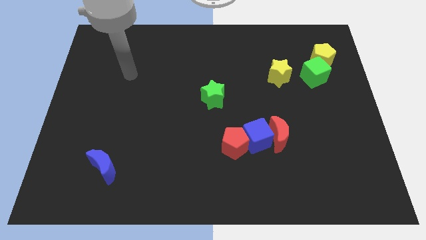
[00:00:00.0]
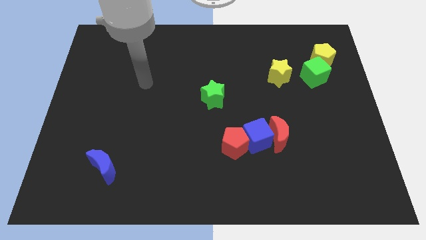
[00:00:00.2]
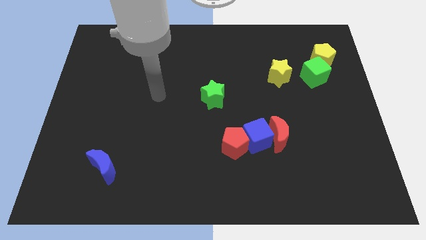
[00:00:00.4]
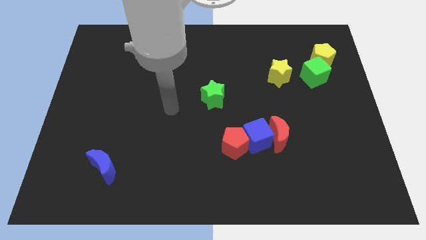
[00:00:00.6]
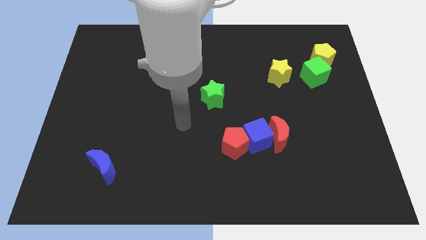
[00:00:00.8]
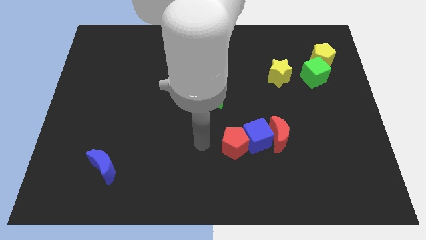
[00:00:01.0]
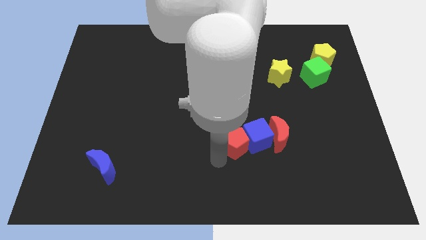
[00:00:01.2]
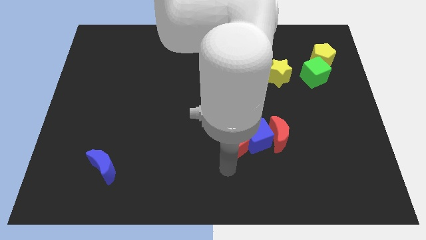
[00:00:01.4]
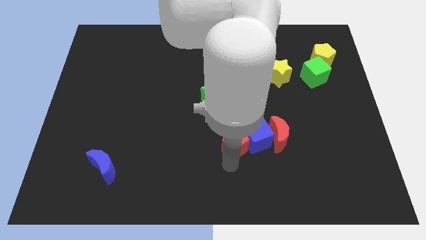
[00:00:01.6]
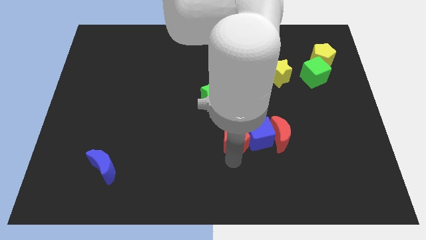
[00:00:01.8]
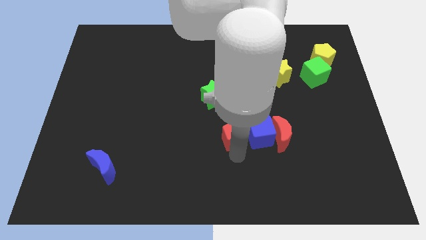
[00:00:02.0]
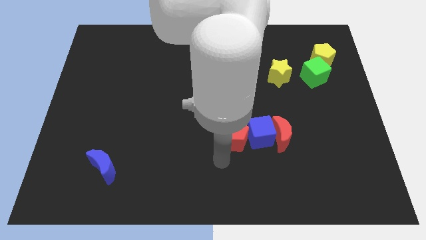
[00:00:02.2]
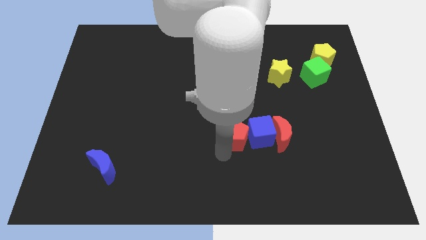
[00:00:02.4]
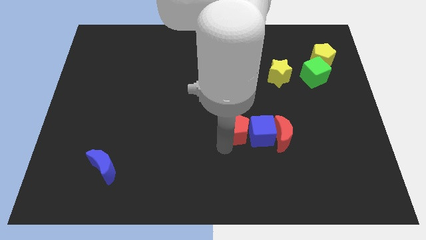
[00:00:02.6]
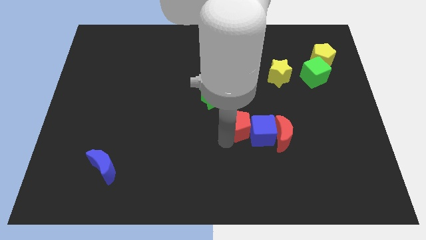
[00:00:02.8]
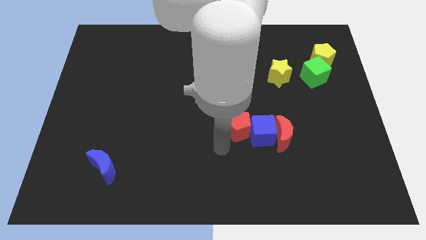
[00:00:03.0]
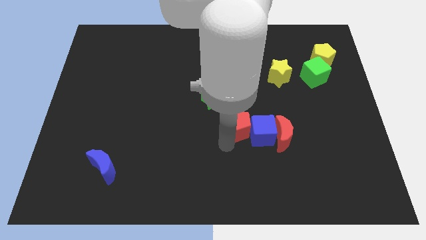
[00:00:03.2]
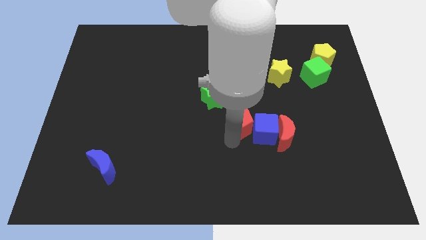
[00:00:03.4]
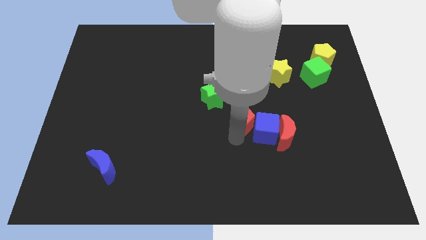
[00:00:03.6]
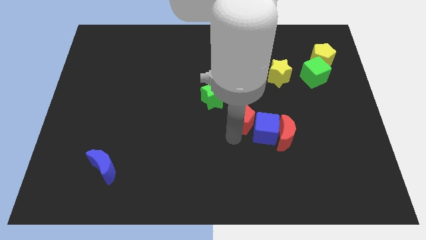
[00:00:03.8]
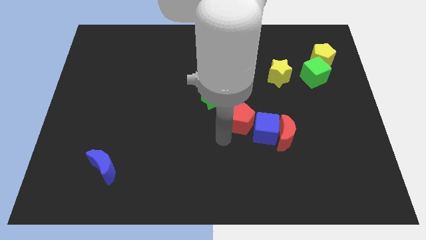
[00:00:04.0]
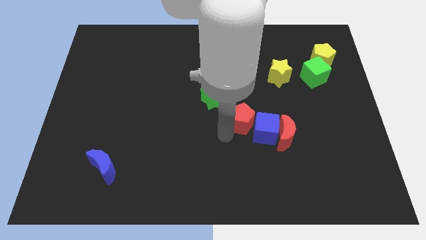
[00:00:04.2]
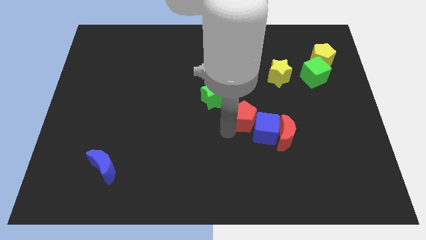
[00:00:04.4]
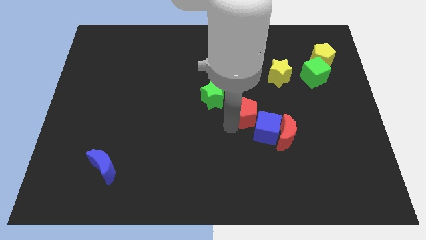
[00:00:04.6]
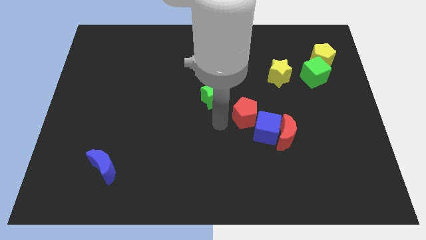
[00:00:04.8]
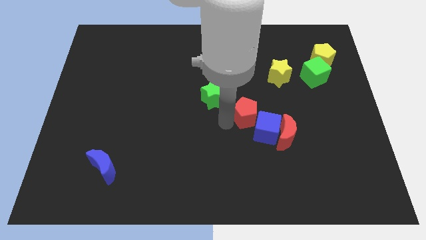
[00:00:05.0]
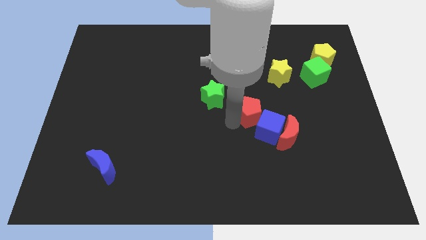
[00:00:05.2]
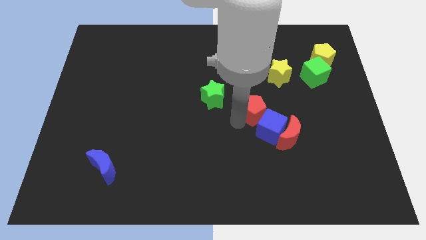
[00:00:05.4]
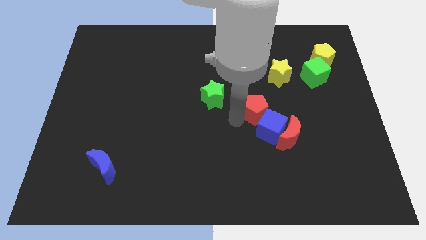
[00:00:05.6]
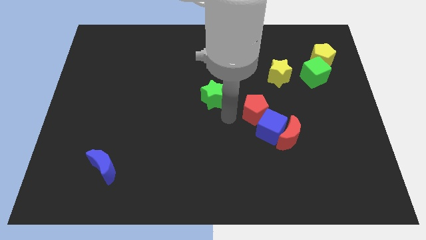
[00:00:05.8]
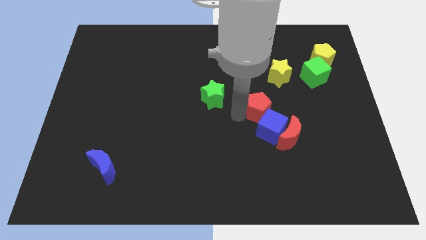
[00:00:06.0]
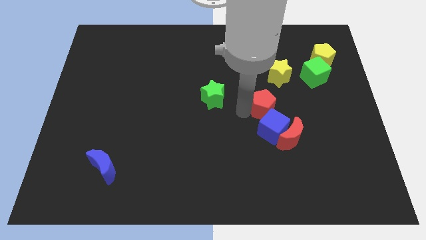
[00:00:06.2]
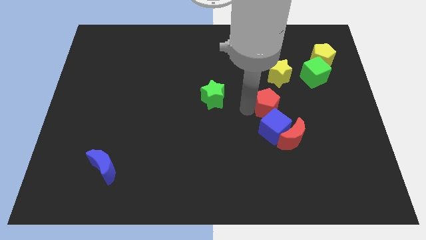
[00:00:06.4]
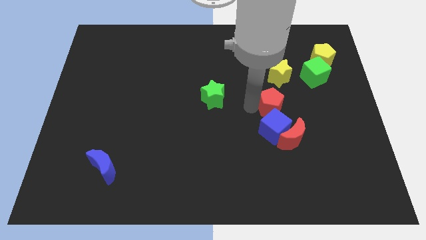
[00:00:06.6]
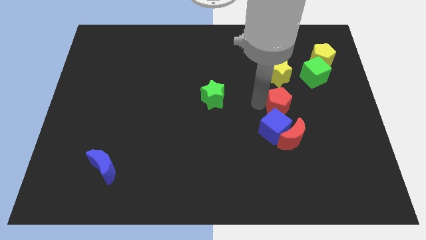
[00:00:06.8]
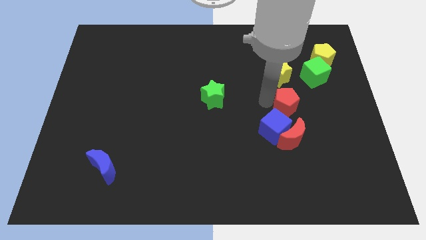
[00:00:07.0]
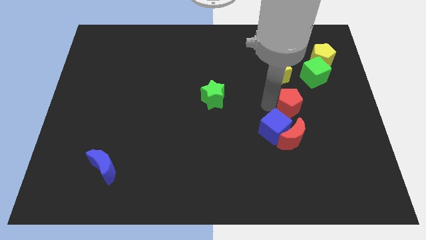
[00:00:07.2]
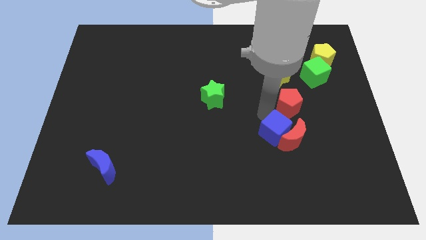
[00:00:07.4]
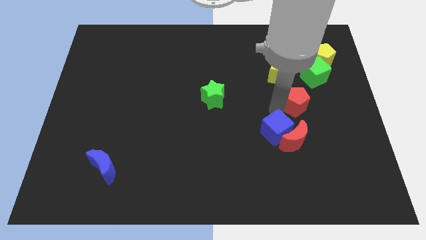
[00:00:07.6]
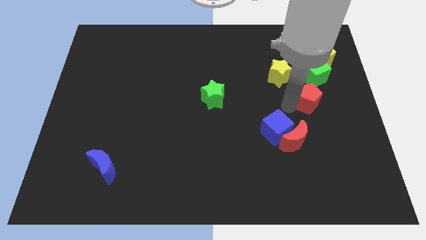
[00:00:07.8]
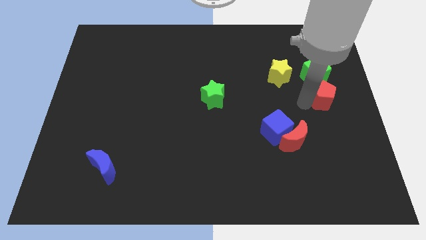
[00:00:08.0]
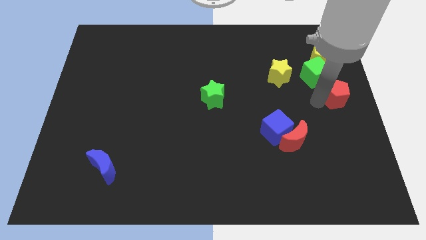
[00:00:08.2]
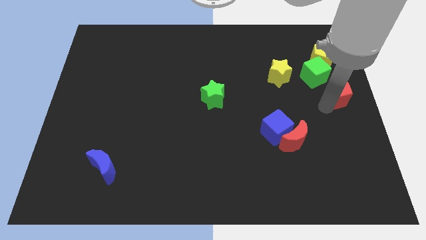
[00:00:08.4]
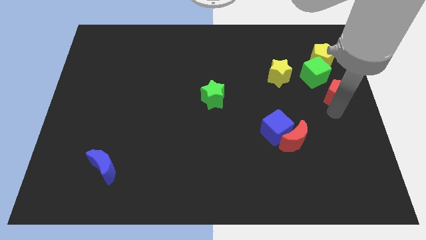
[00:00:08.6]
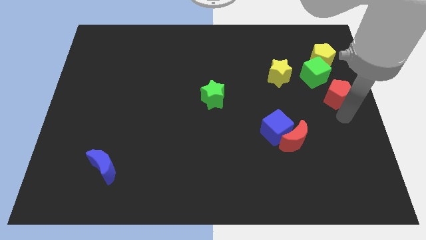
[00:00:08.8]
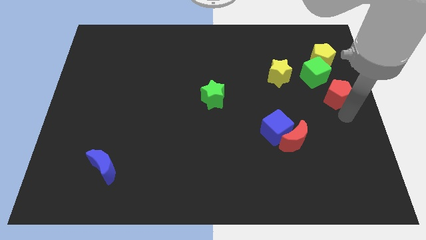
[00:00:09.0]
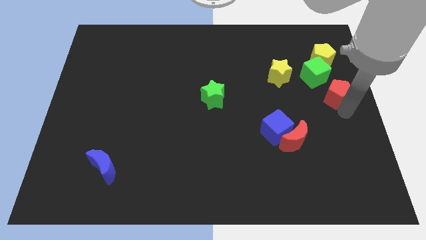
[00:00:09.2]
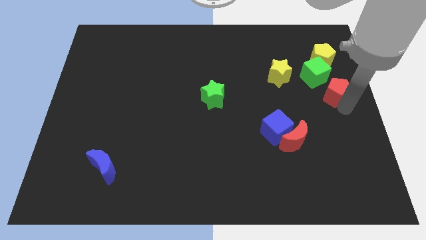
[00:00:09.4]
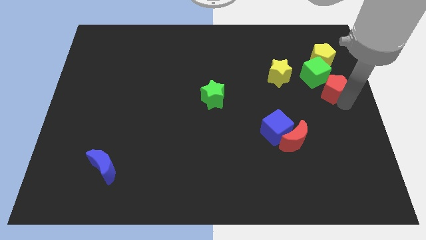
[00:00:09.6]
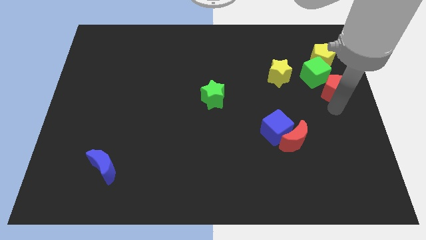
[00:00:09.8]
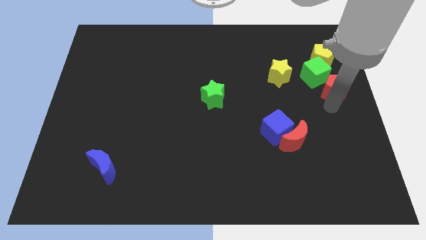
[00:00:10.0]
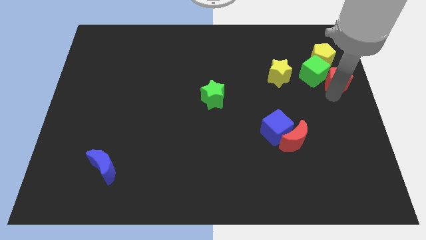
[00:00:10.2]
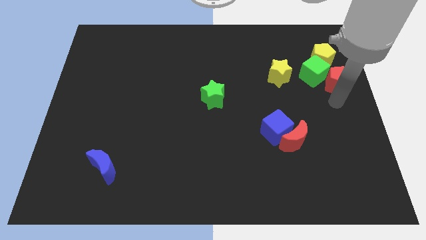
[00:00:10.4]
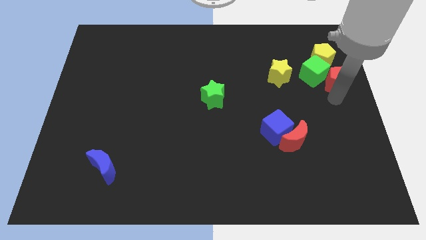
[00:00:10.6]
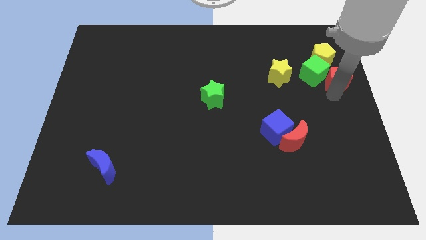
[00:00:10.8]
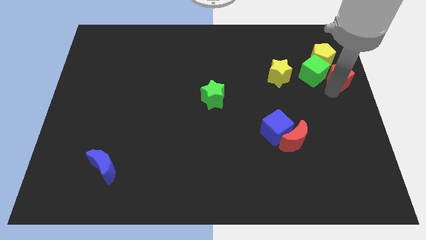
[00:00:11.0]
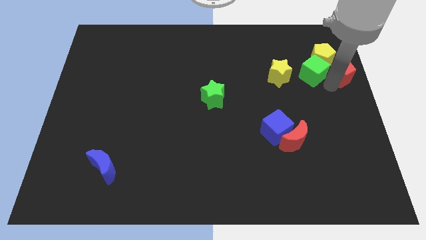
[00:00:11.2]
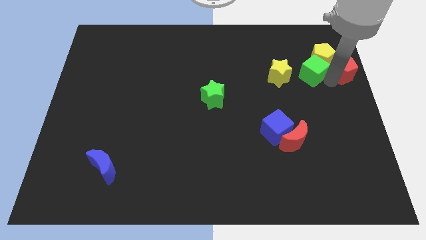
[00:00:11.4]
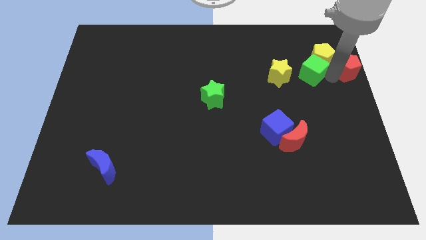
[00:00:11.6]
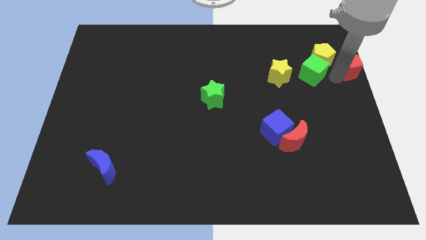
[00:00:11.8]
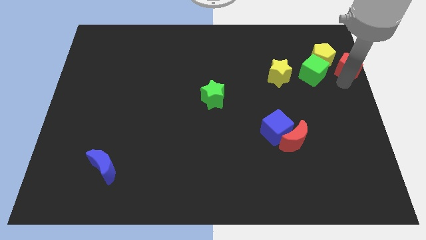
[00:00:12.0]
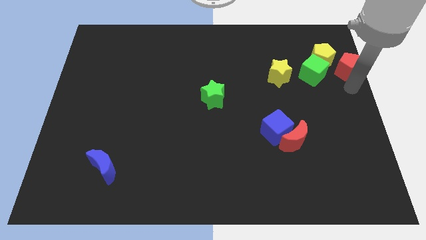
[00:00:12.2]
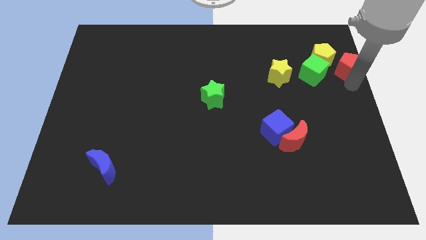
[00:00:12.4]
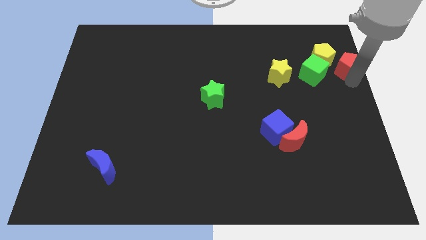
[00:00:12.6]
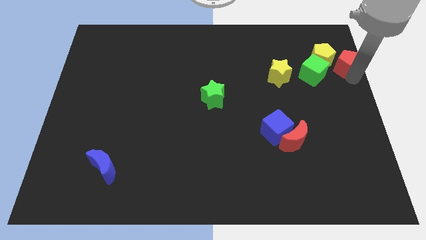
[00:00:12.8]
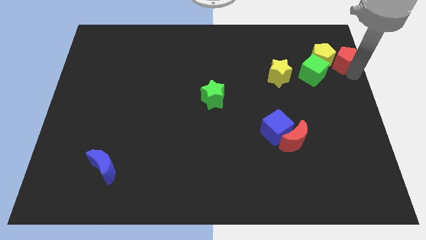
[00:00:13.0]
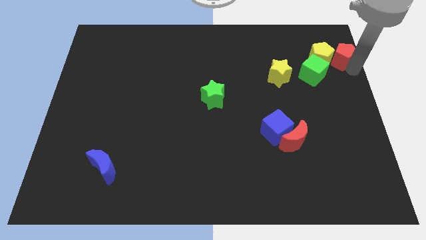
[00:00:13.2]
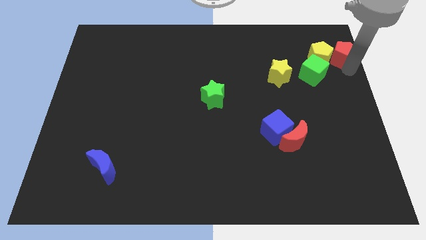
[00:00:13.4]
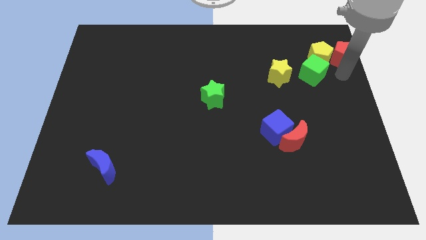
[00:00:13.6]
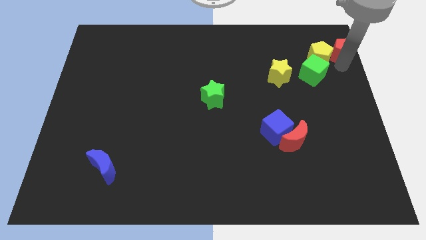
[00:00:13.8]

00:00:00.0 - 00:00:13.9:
put the red pentagon to the upper right corner
